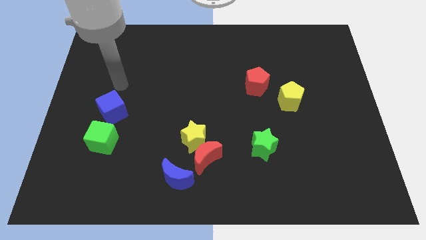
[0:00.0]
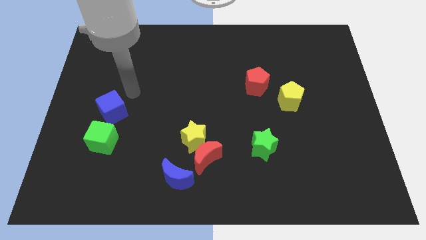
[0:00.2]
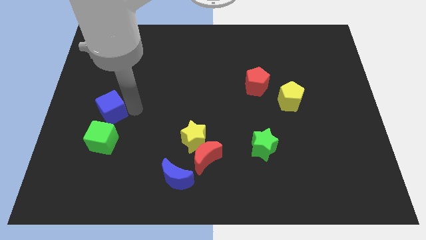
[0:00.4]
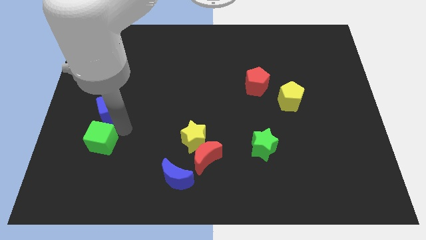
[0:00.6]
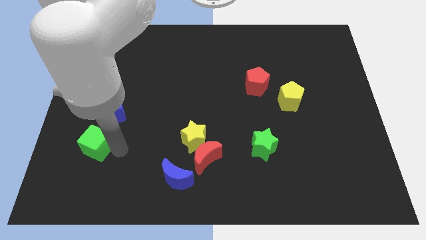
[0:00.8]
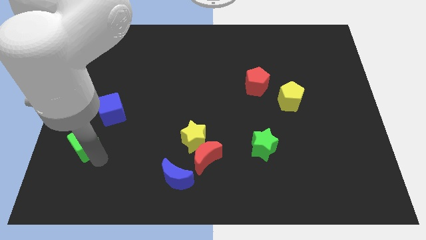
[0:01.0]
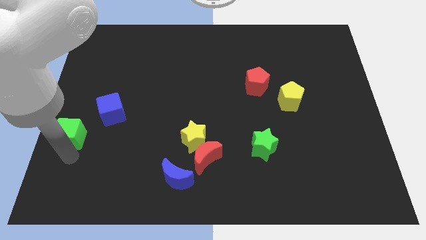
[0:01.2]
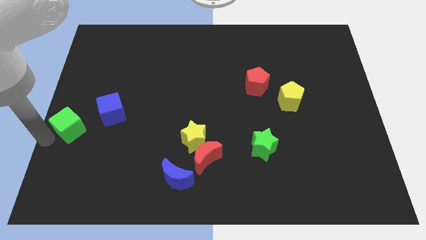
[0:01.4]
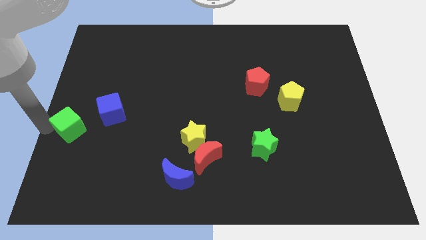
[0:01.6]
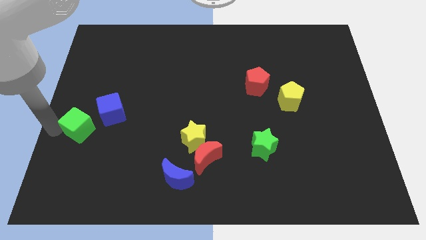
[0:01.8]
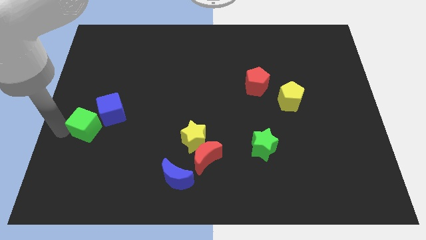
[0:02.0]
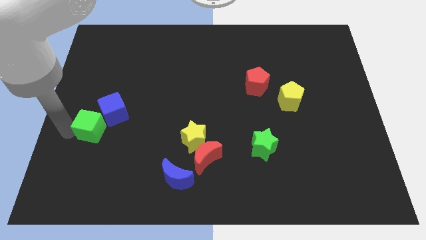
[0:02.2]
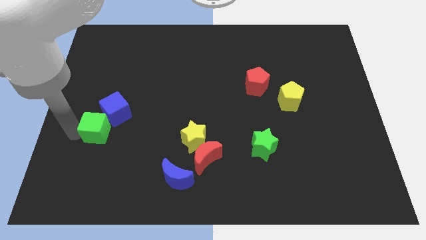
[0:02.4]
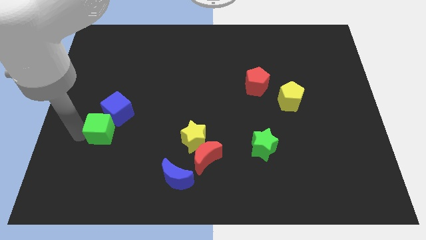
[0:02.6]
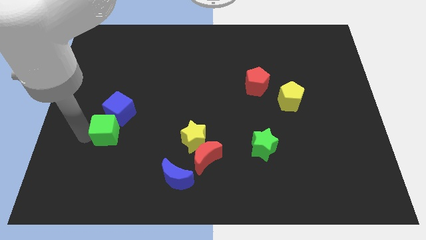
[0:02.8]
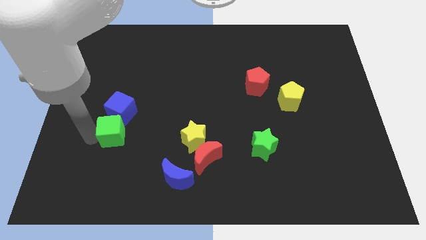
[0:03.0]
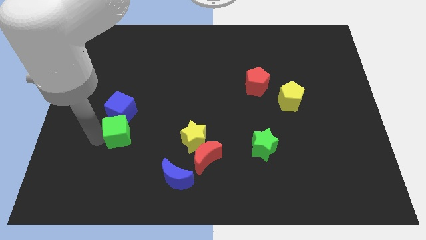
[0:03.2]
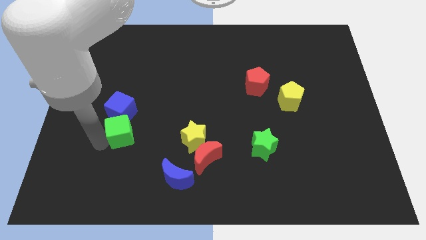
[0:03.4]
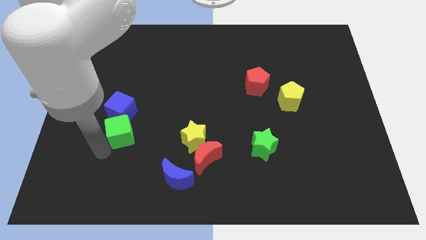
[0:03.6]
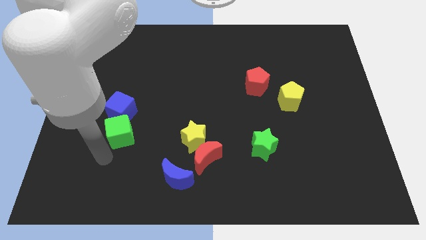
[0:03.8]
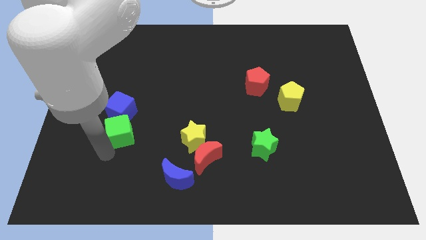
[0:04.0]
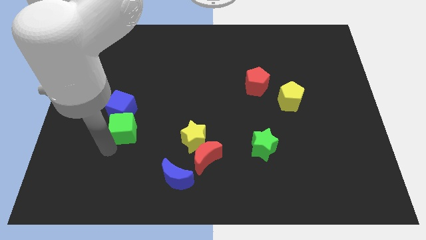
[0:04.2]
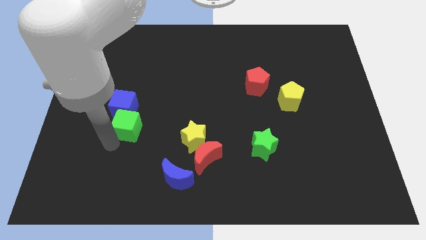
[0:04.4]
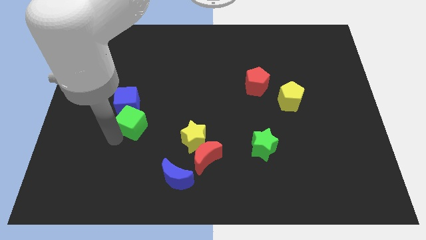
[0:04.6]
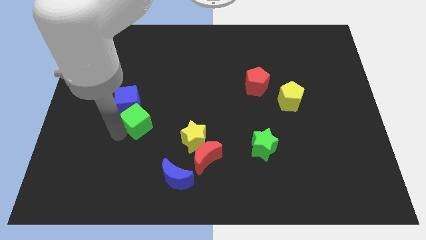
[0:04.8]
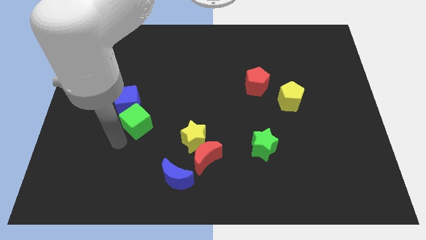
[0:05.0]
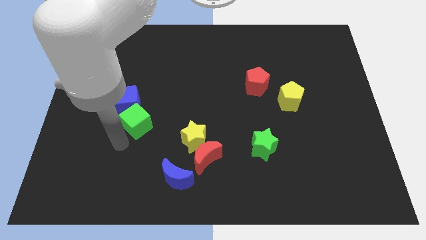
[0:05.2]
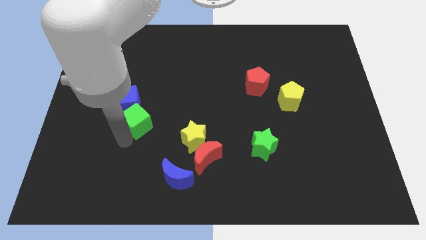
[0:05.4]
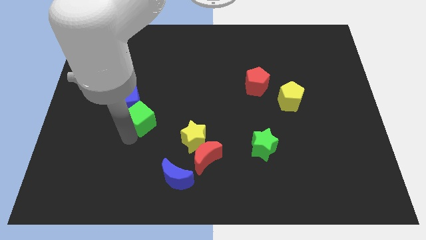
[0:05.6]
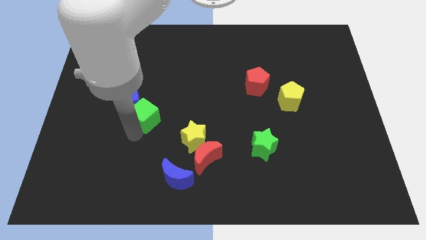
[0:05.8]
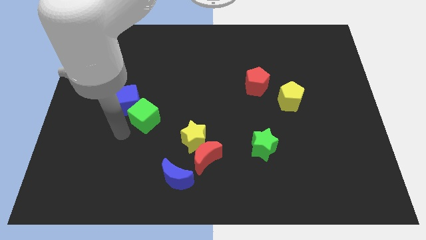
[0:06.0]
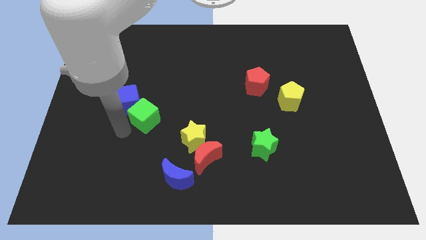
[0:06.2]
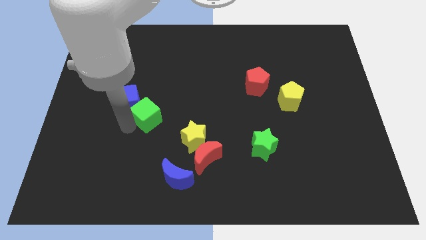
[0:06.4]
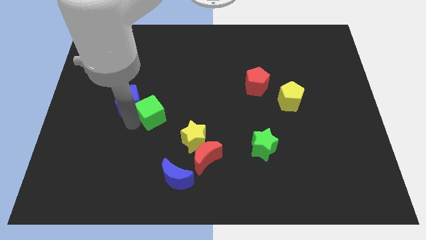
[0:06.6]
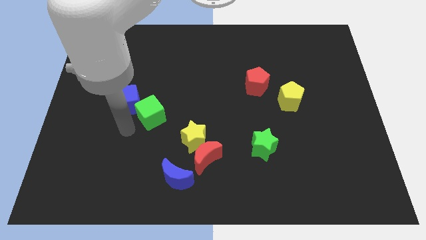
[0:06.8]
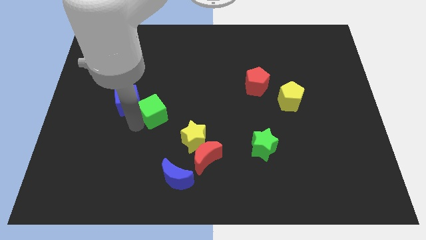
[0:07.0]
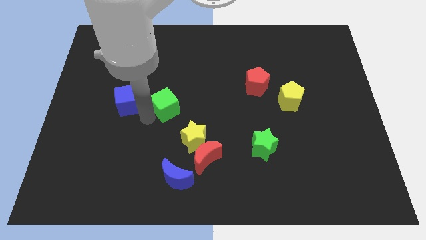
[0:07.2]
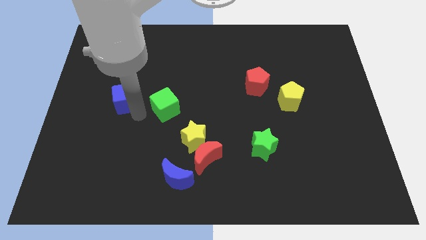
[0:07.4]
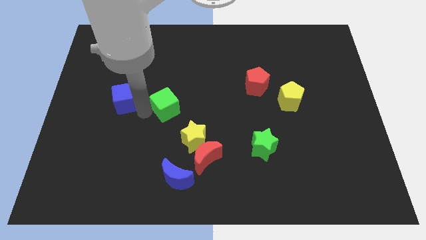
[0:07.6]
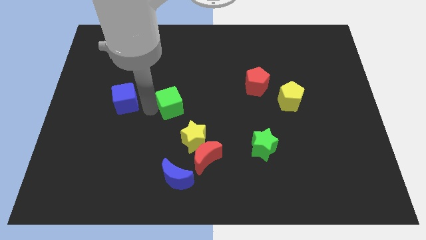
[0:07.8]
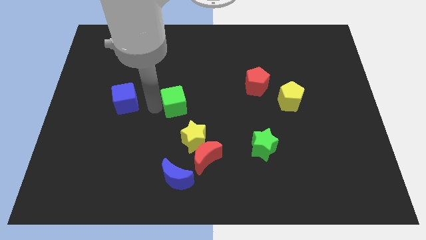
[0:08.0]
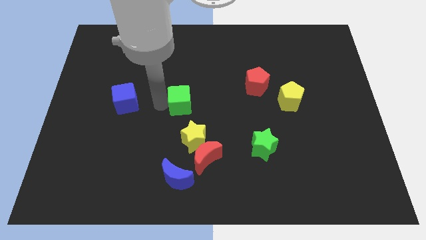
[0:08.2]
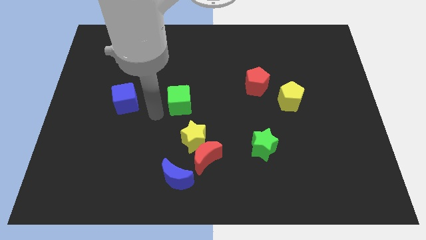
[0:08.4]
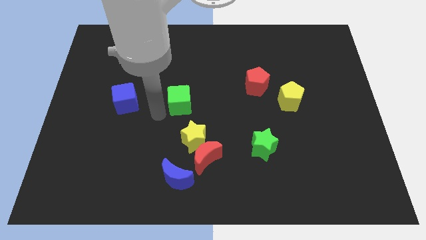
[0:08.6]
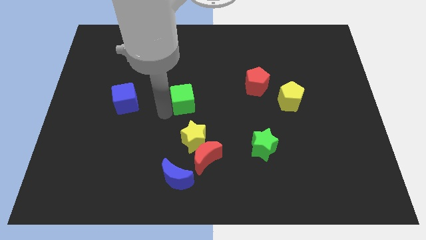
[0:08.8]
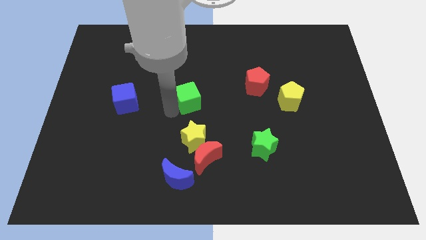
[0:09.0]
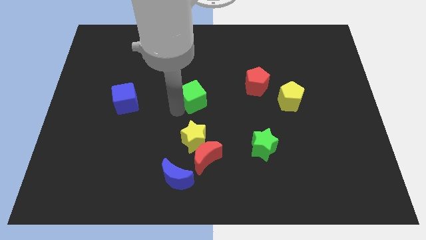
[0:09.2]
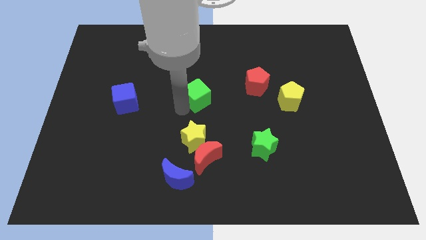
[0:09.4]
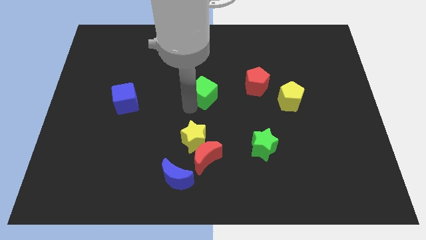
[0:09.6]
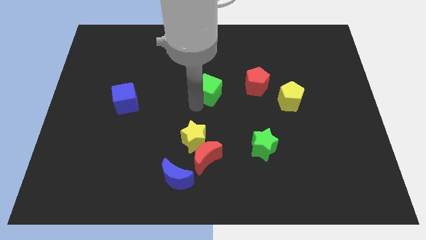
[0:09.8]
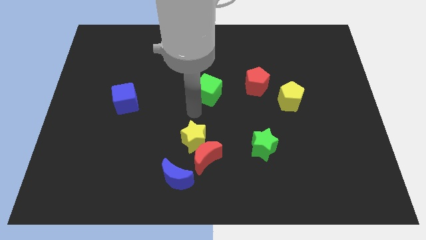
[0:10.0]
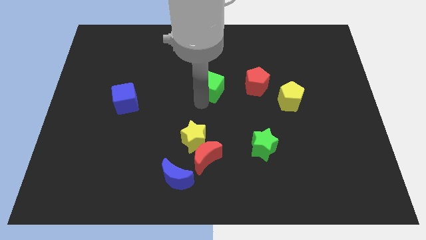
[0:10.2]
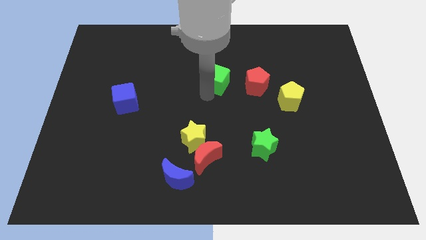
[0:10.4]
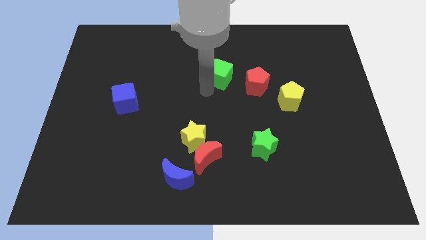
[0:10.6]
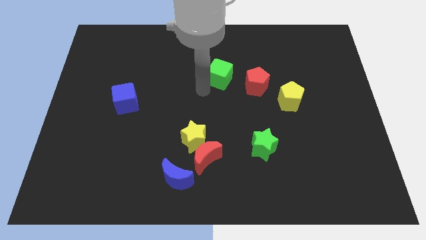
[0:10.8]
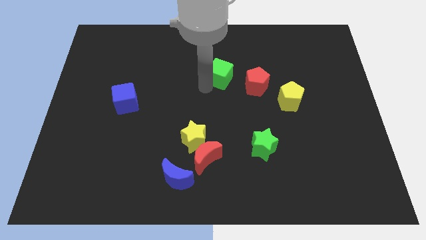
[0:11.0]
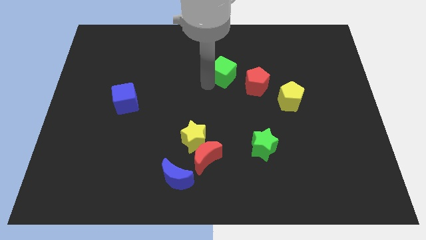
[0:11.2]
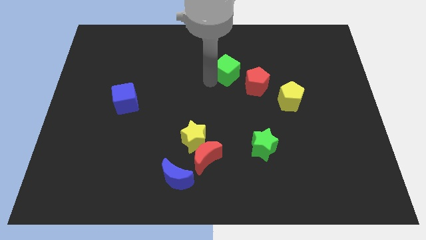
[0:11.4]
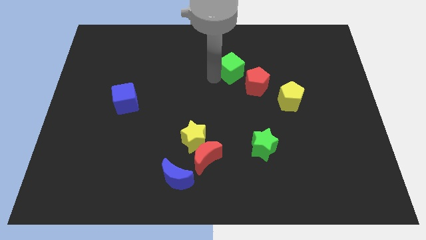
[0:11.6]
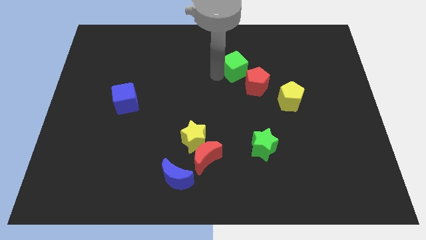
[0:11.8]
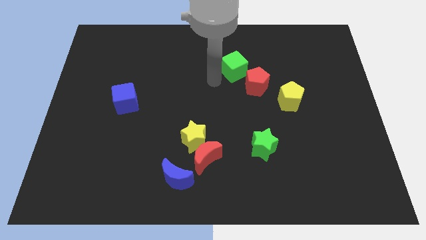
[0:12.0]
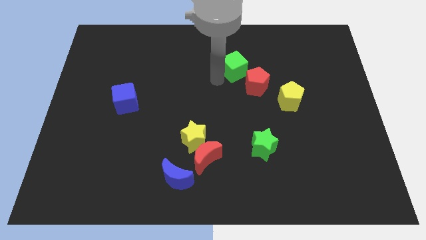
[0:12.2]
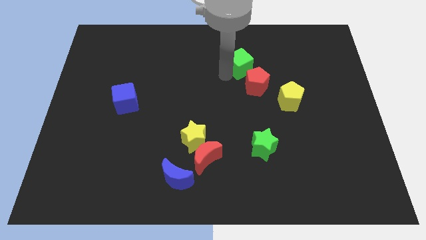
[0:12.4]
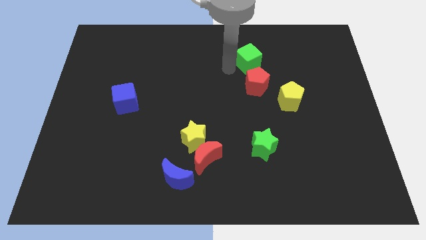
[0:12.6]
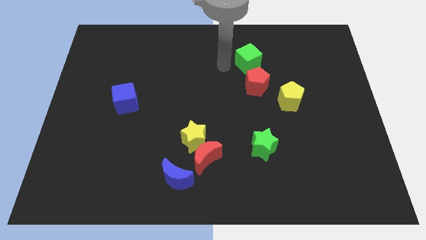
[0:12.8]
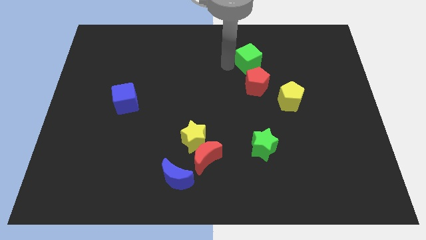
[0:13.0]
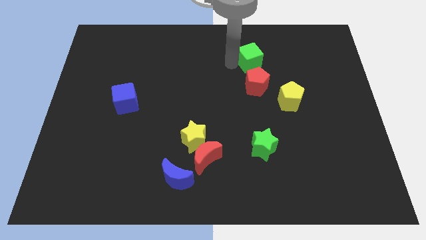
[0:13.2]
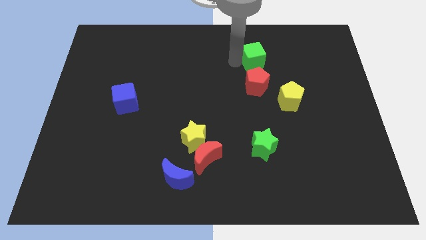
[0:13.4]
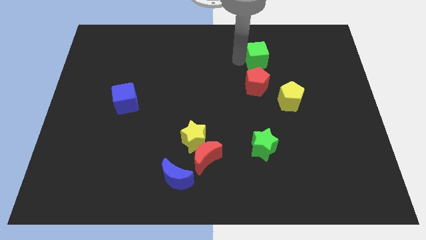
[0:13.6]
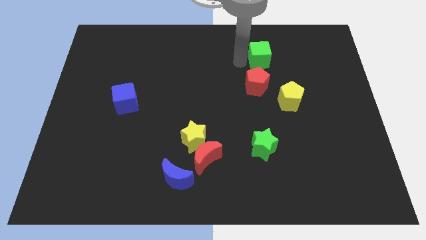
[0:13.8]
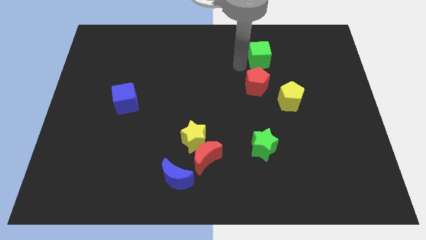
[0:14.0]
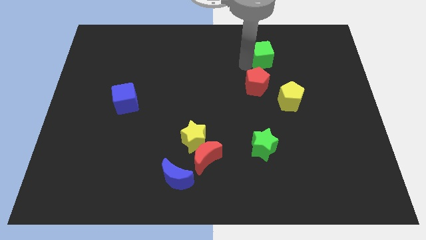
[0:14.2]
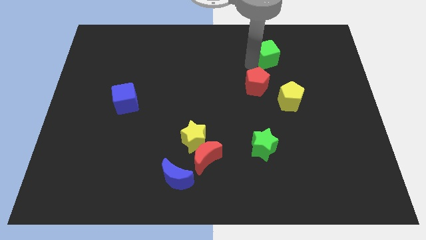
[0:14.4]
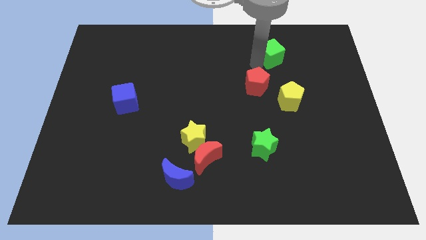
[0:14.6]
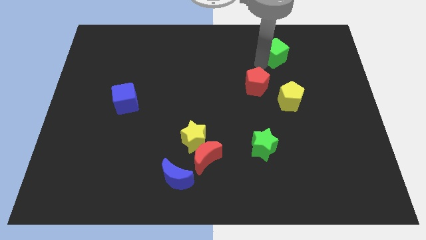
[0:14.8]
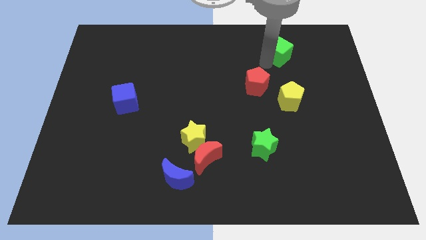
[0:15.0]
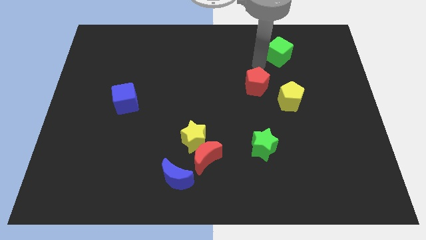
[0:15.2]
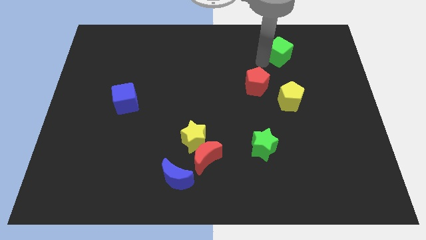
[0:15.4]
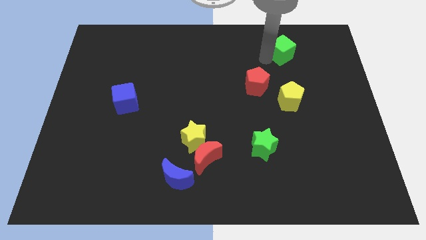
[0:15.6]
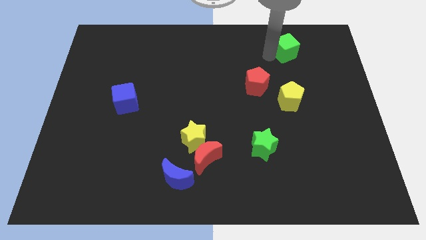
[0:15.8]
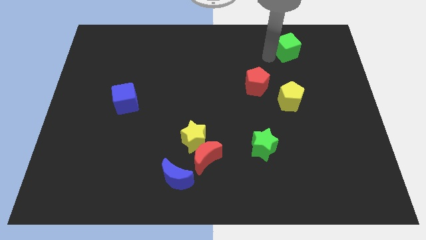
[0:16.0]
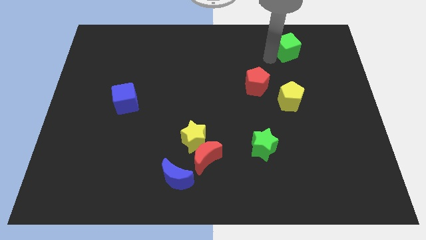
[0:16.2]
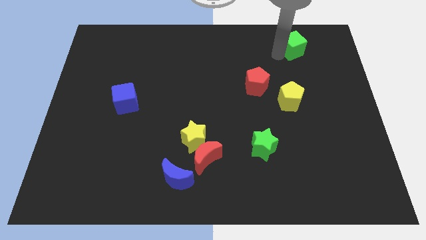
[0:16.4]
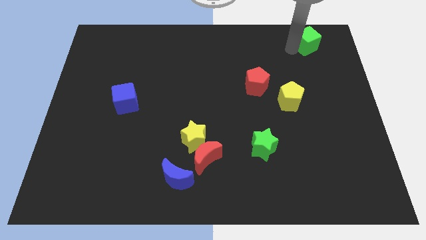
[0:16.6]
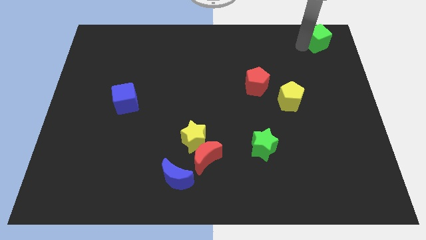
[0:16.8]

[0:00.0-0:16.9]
slide the green cube to the upper right corner
